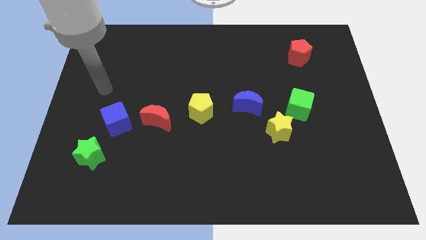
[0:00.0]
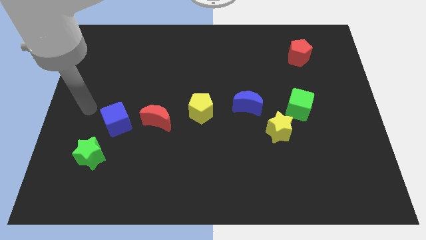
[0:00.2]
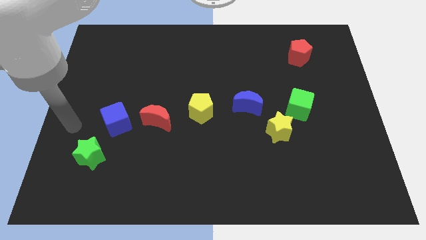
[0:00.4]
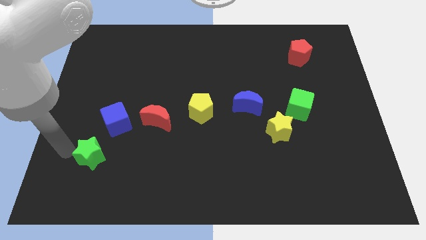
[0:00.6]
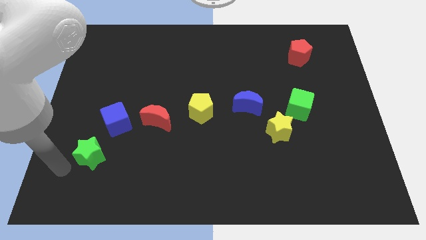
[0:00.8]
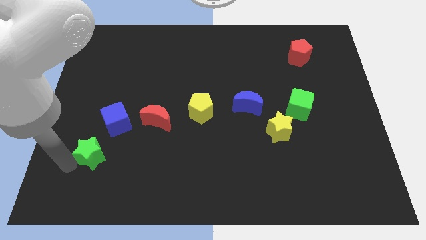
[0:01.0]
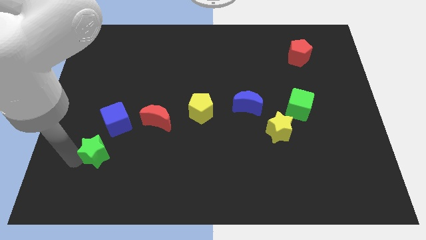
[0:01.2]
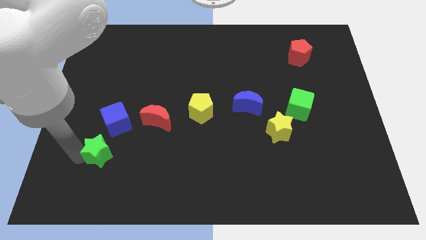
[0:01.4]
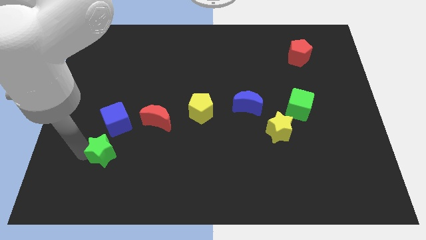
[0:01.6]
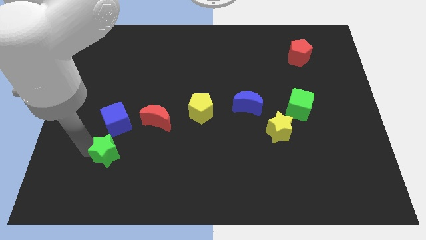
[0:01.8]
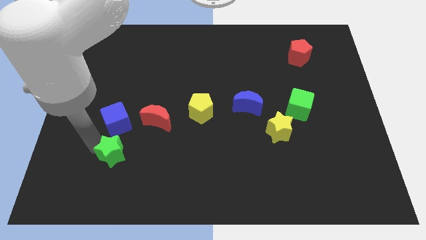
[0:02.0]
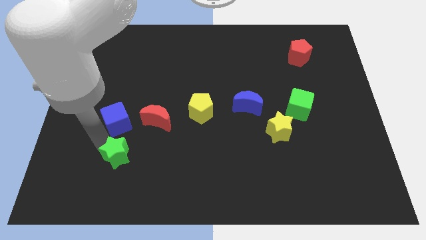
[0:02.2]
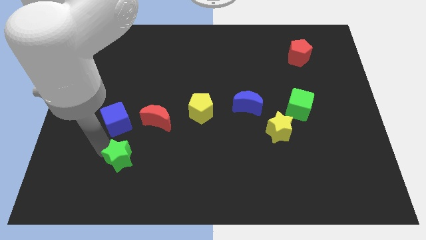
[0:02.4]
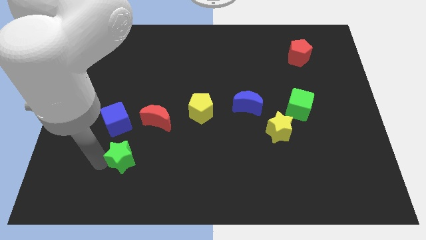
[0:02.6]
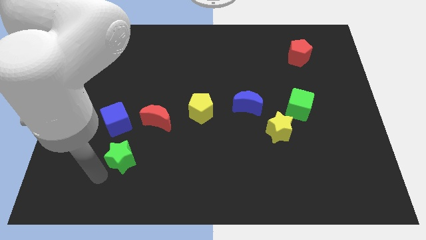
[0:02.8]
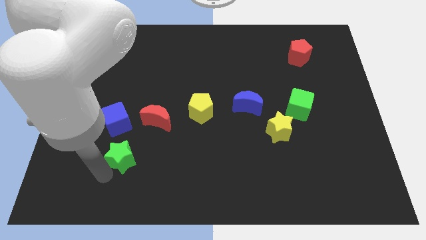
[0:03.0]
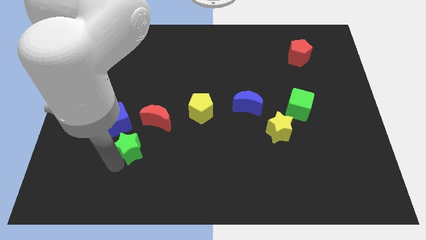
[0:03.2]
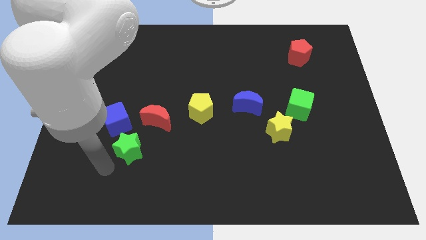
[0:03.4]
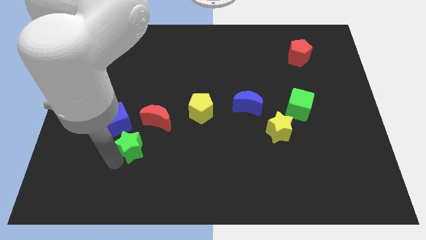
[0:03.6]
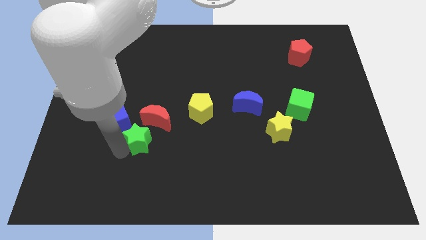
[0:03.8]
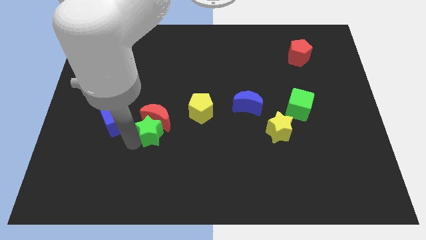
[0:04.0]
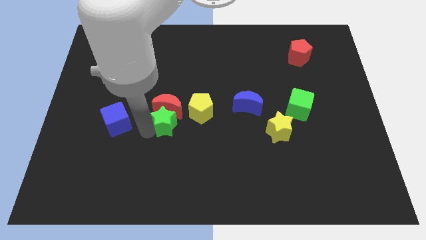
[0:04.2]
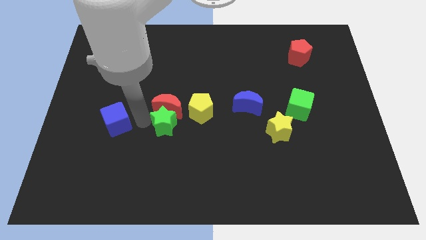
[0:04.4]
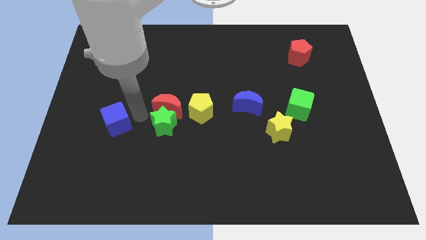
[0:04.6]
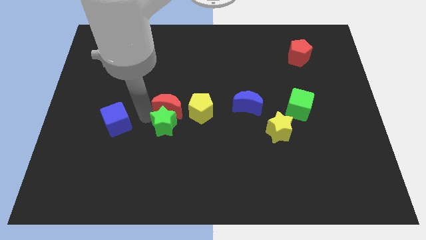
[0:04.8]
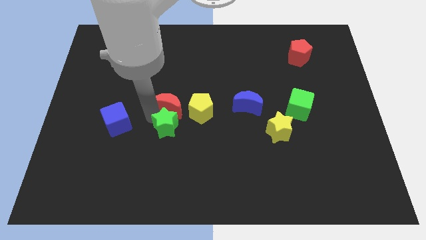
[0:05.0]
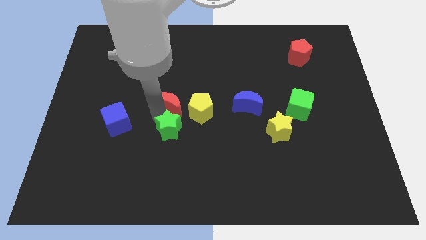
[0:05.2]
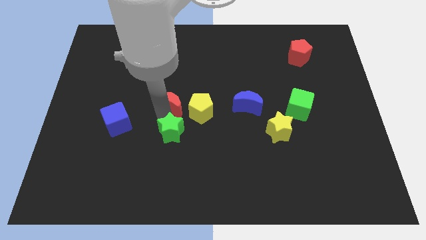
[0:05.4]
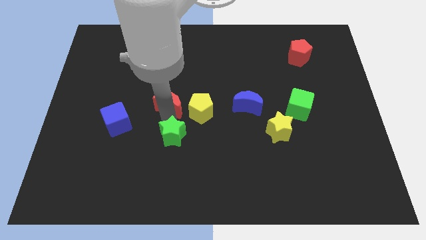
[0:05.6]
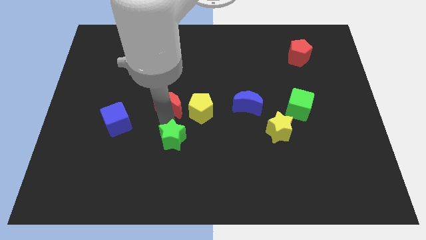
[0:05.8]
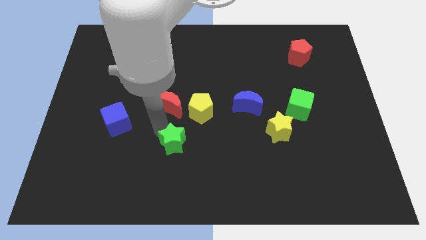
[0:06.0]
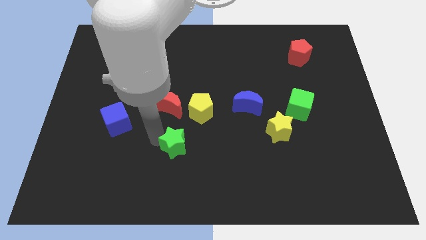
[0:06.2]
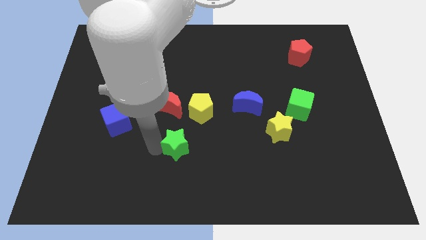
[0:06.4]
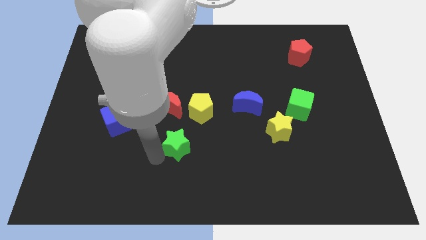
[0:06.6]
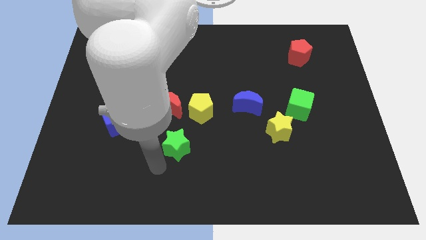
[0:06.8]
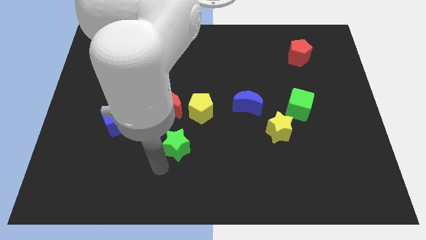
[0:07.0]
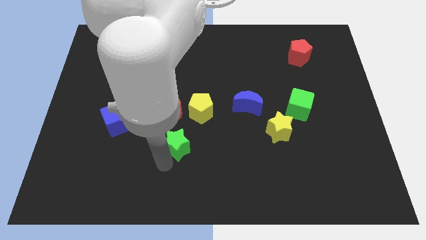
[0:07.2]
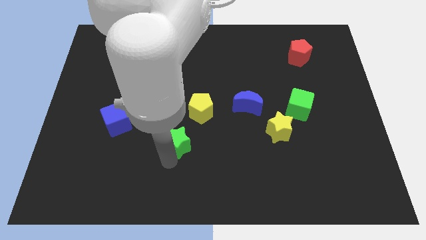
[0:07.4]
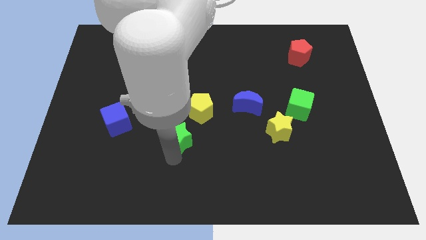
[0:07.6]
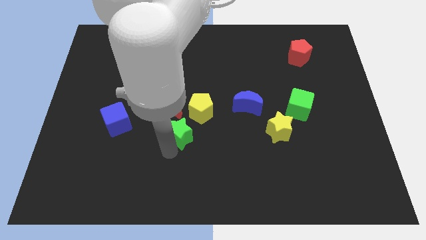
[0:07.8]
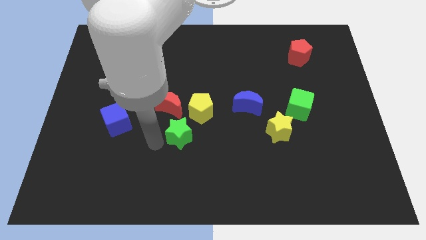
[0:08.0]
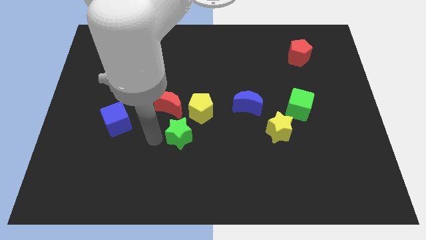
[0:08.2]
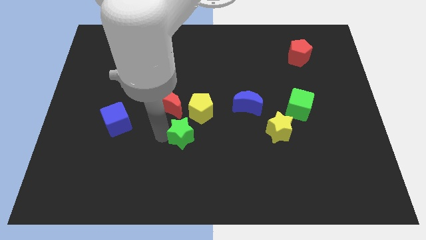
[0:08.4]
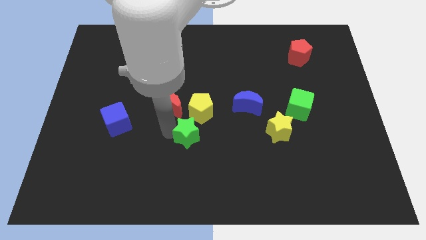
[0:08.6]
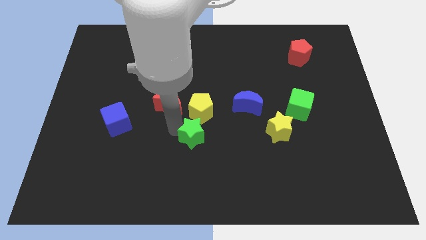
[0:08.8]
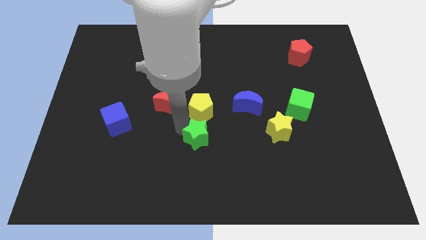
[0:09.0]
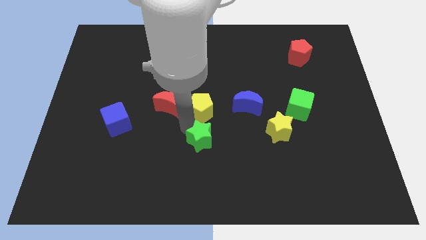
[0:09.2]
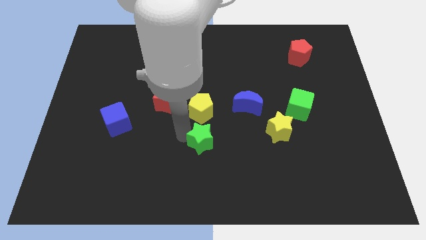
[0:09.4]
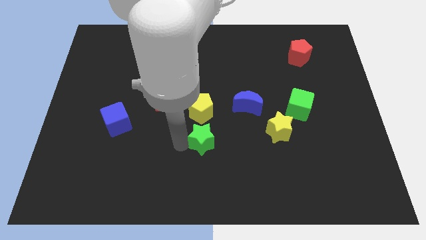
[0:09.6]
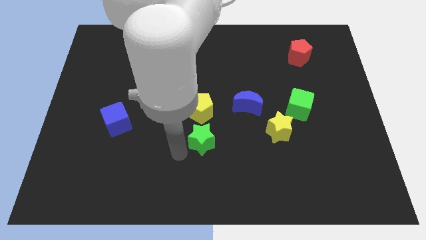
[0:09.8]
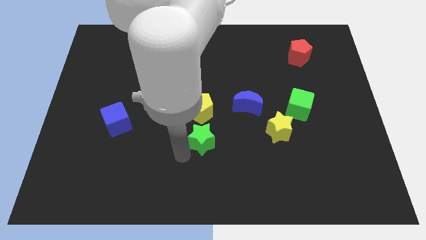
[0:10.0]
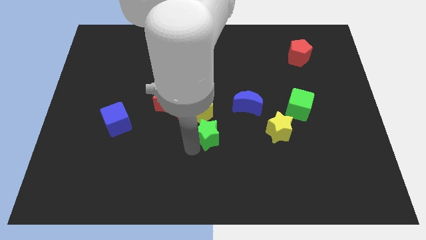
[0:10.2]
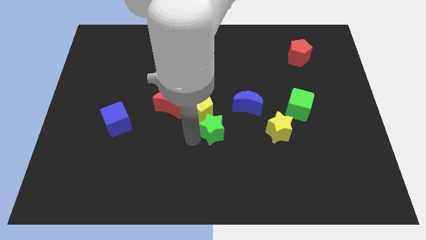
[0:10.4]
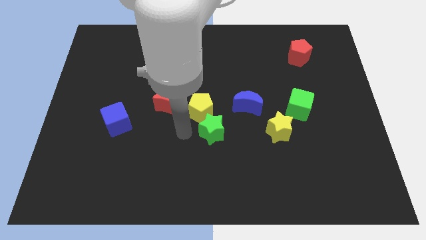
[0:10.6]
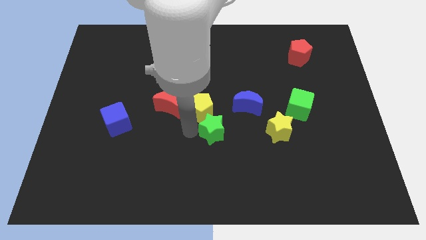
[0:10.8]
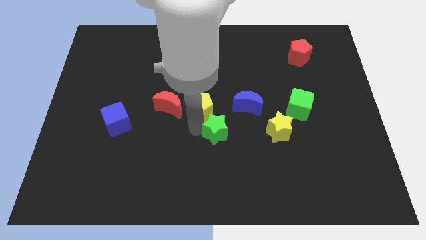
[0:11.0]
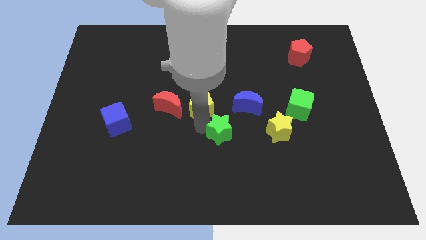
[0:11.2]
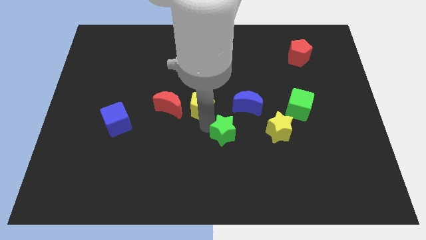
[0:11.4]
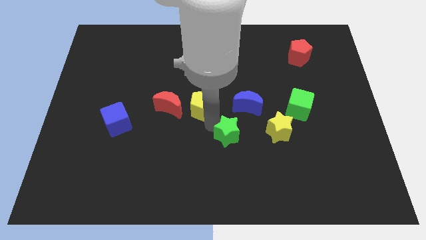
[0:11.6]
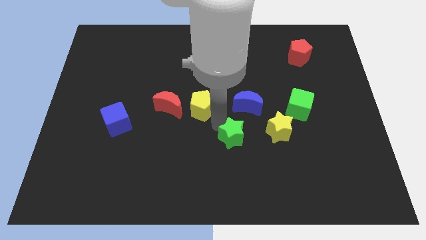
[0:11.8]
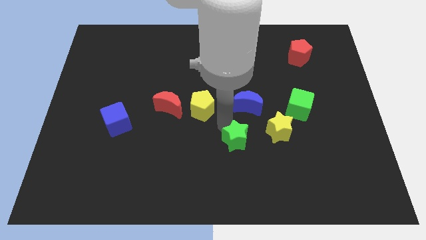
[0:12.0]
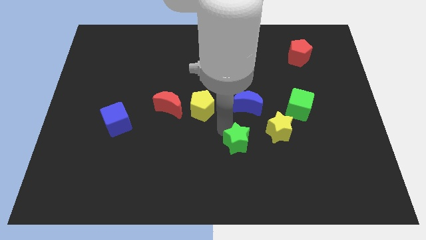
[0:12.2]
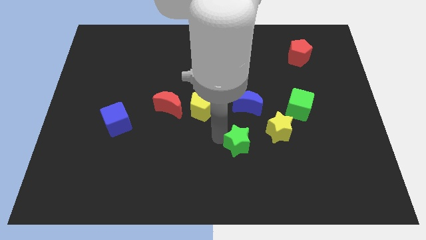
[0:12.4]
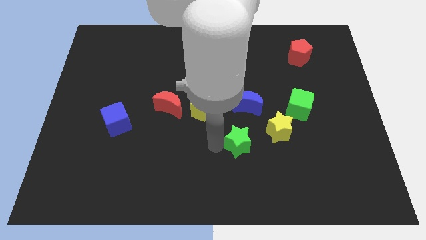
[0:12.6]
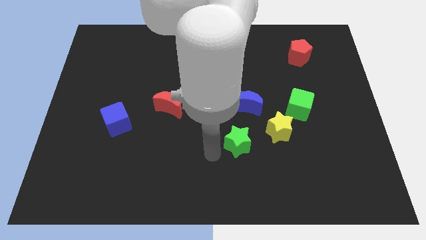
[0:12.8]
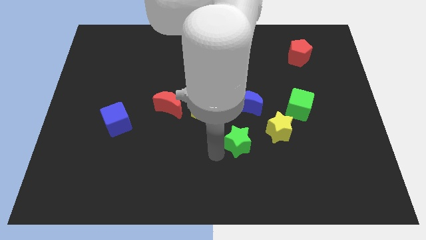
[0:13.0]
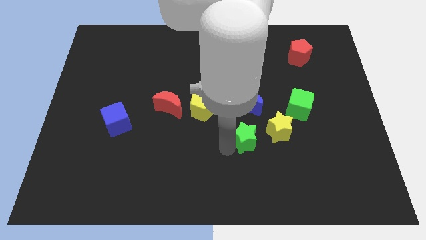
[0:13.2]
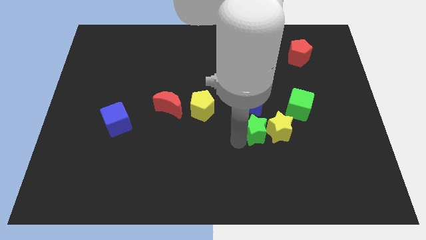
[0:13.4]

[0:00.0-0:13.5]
move the green star next to the yellow star
